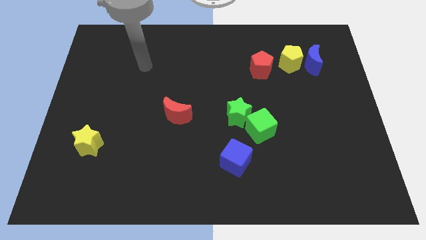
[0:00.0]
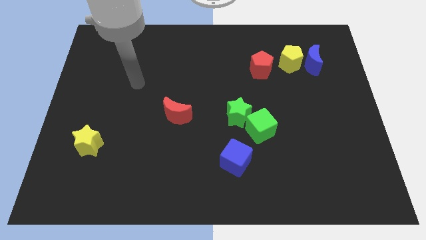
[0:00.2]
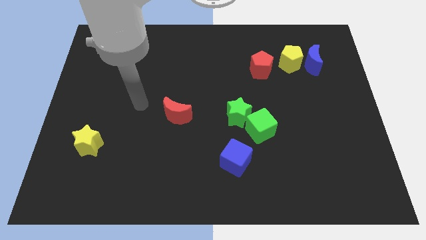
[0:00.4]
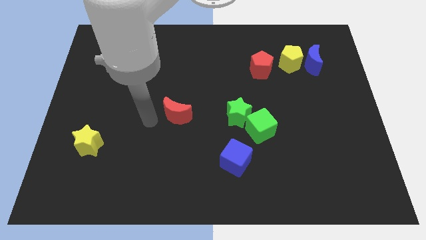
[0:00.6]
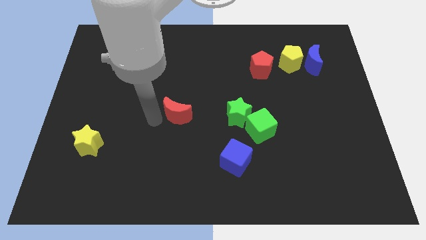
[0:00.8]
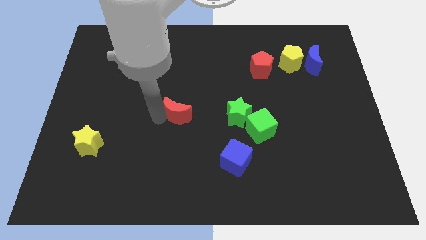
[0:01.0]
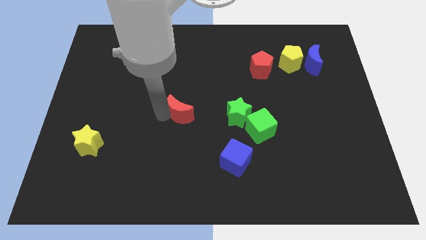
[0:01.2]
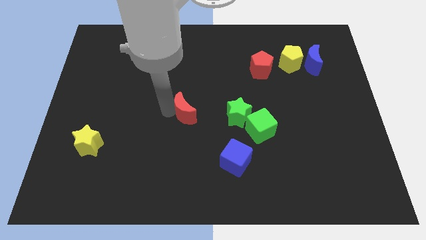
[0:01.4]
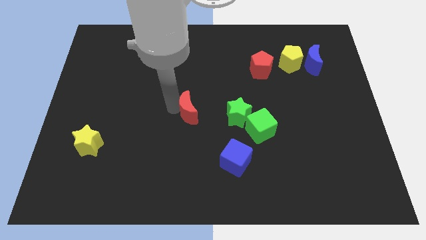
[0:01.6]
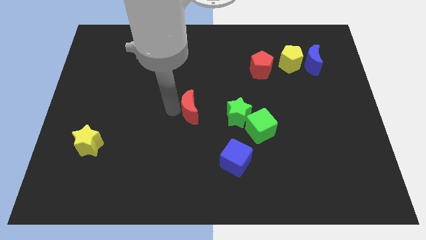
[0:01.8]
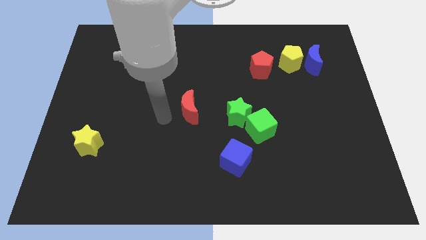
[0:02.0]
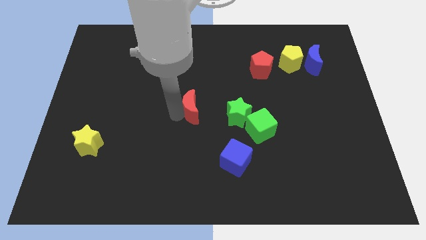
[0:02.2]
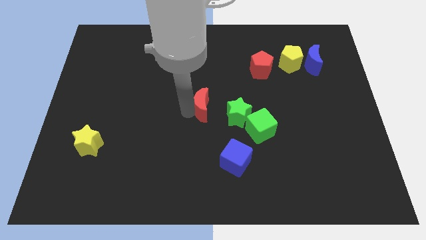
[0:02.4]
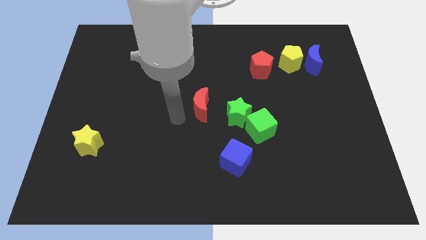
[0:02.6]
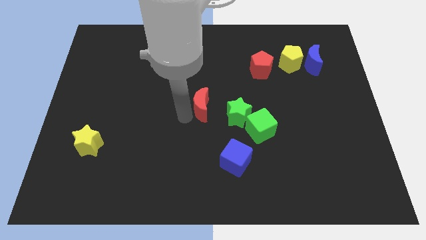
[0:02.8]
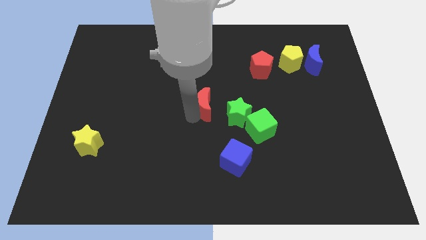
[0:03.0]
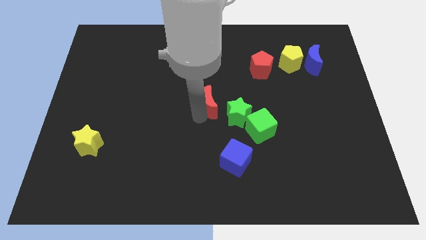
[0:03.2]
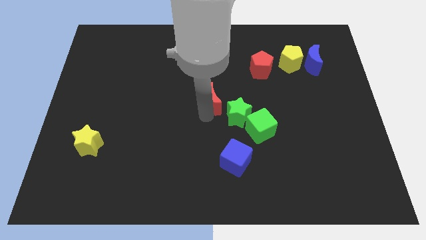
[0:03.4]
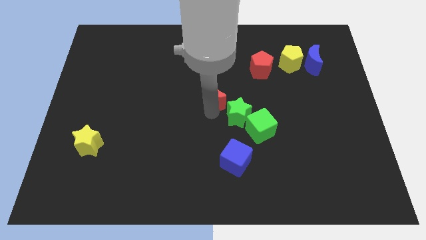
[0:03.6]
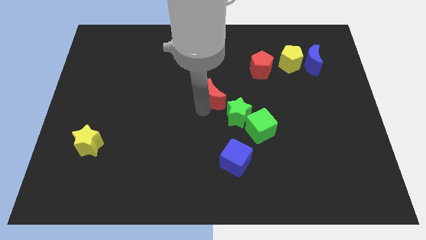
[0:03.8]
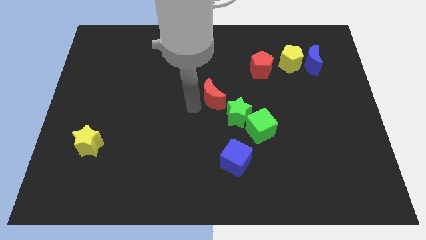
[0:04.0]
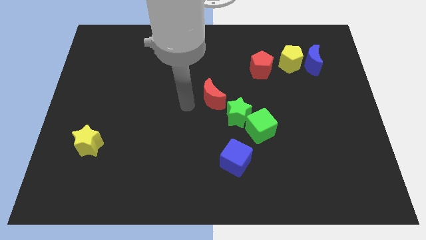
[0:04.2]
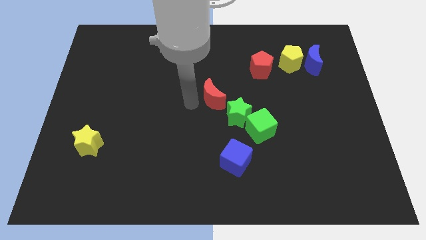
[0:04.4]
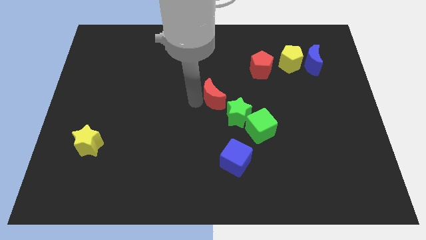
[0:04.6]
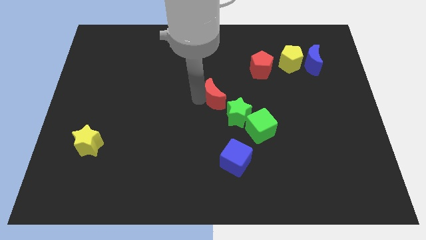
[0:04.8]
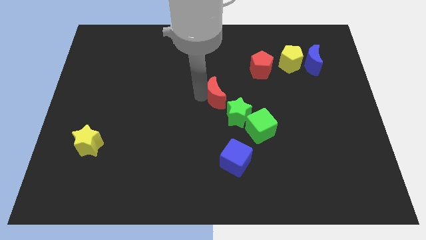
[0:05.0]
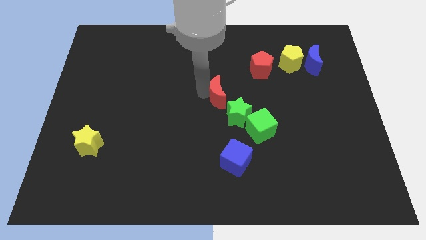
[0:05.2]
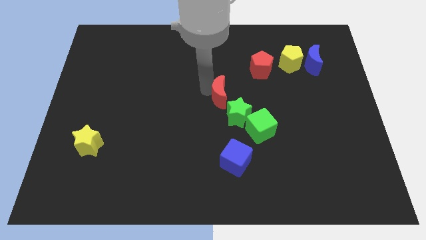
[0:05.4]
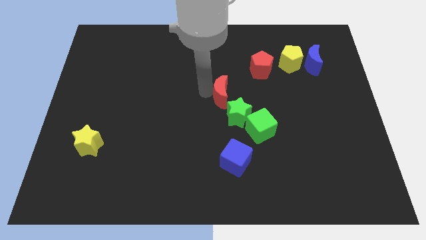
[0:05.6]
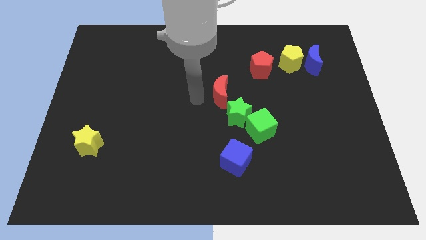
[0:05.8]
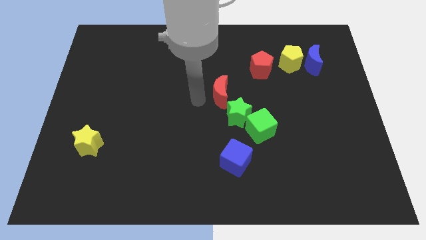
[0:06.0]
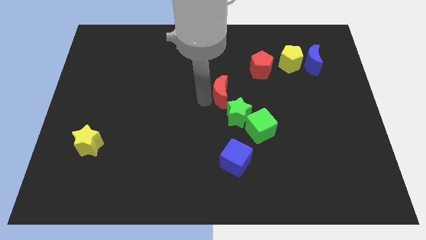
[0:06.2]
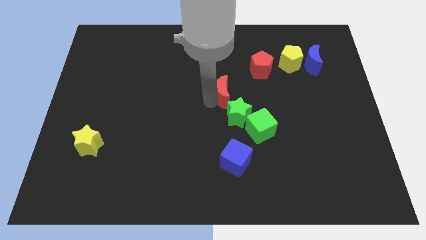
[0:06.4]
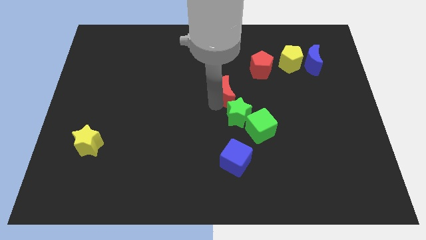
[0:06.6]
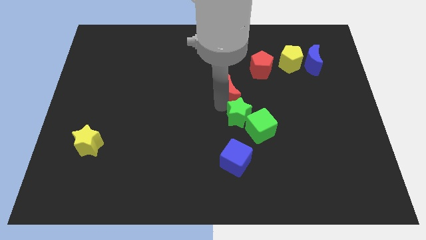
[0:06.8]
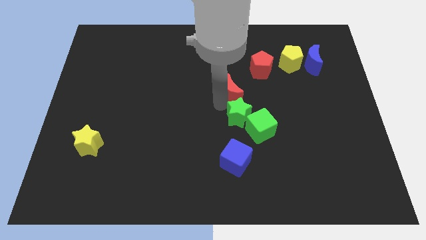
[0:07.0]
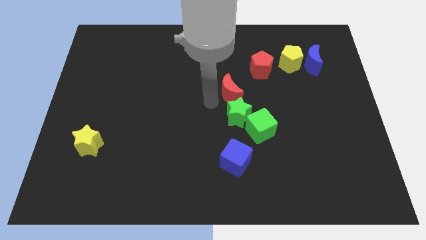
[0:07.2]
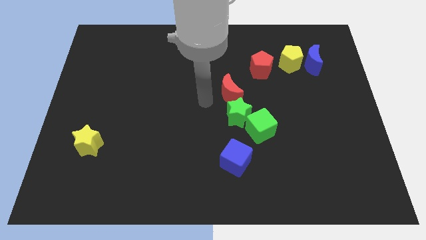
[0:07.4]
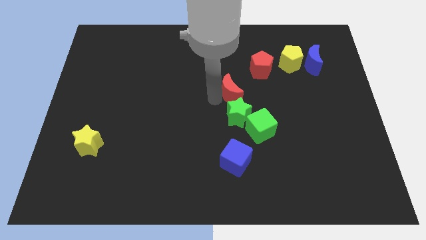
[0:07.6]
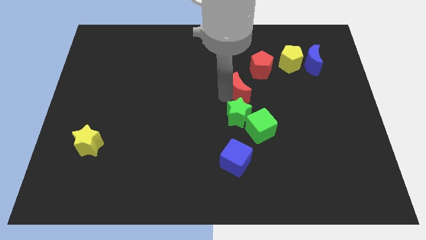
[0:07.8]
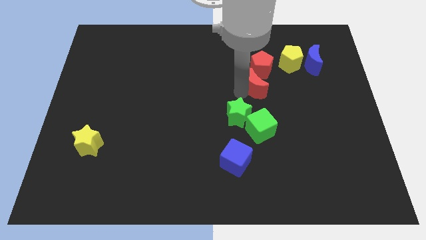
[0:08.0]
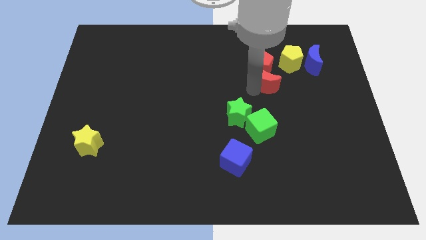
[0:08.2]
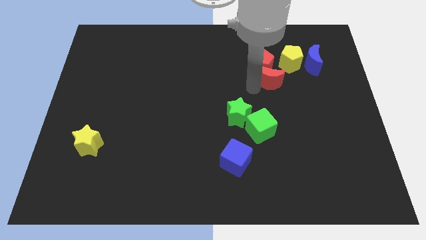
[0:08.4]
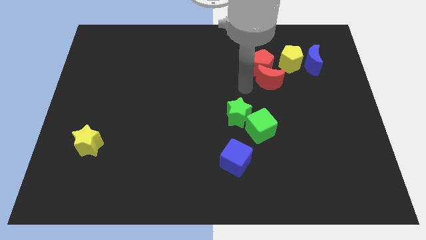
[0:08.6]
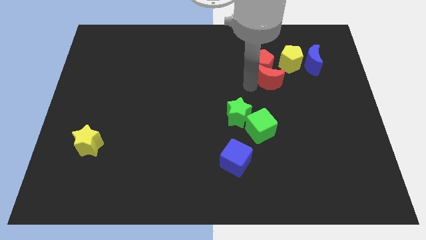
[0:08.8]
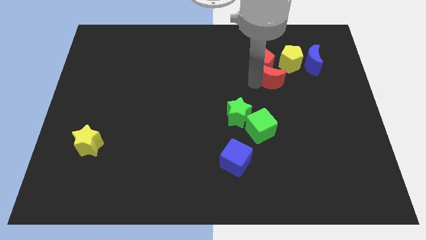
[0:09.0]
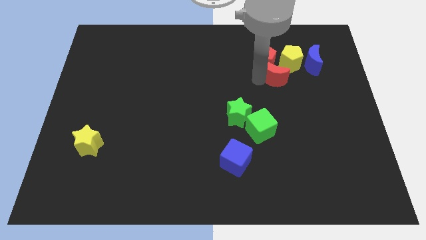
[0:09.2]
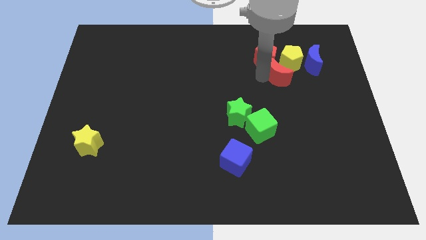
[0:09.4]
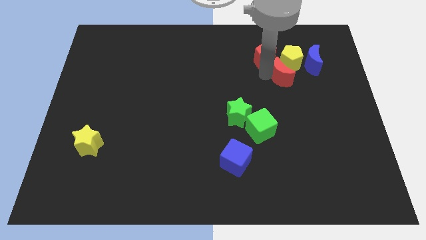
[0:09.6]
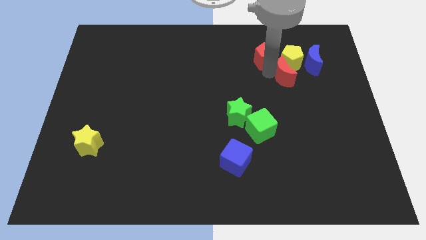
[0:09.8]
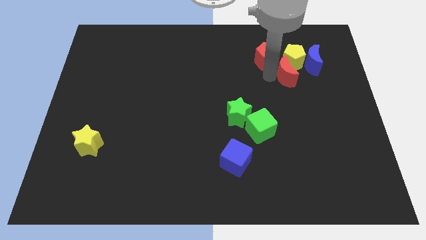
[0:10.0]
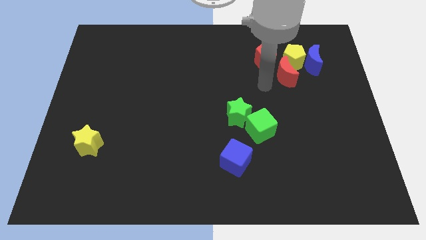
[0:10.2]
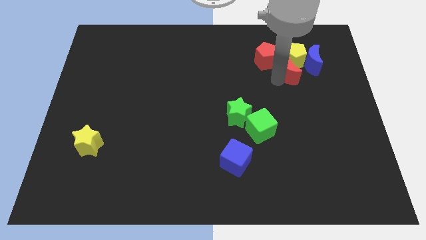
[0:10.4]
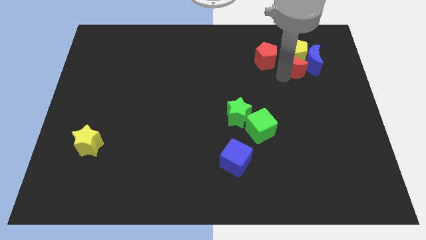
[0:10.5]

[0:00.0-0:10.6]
slide the red moon next to the blue moon

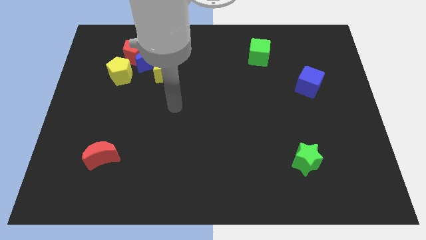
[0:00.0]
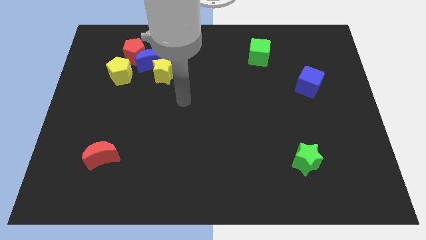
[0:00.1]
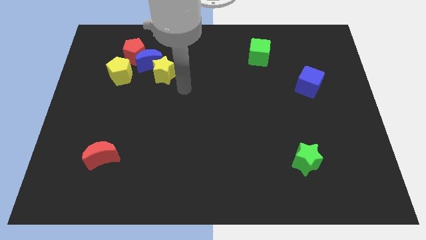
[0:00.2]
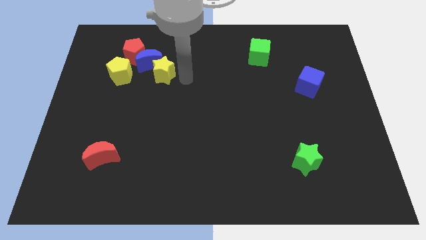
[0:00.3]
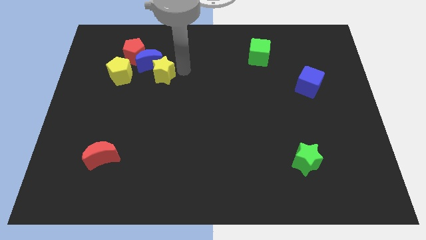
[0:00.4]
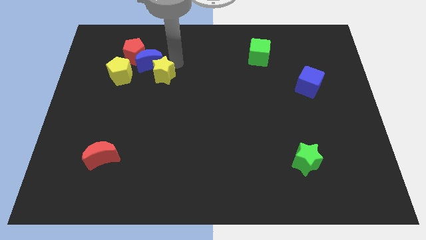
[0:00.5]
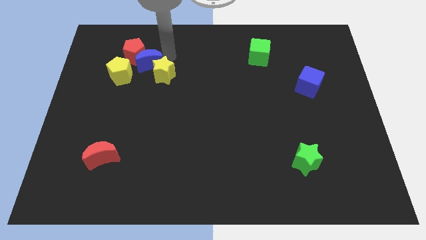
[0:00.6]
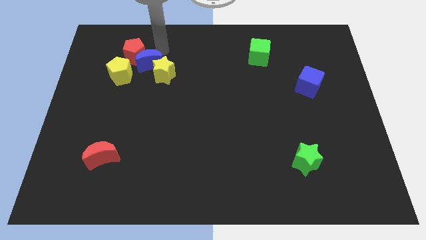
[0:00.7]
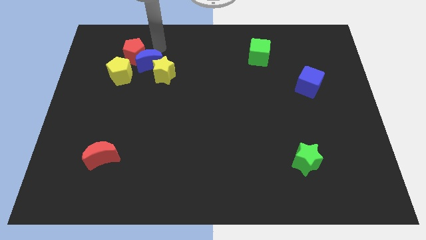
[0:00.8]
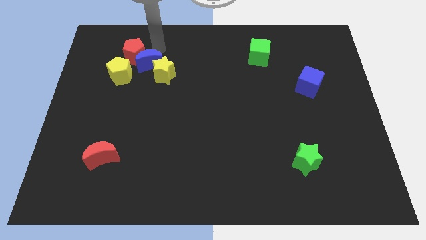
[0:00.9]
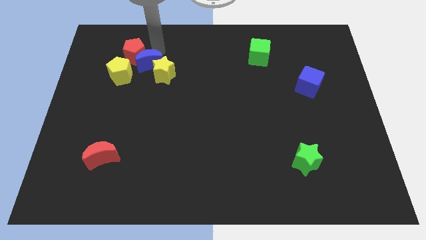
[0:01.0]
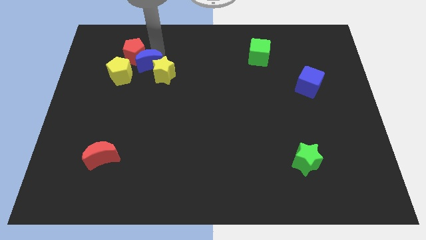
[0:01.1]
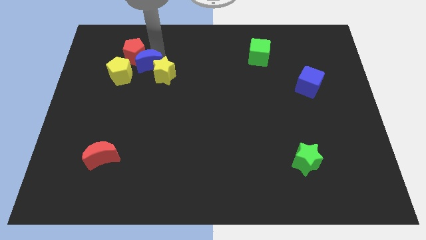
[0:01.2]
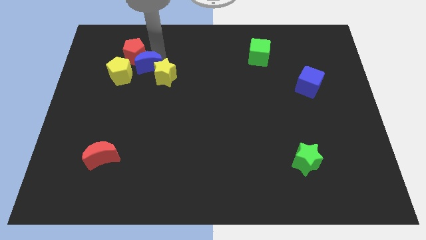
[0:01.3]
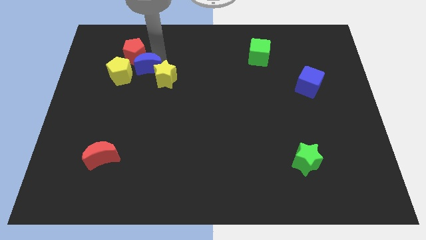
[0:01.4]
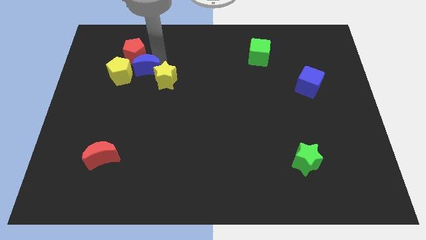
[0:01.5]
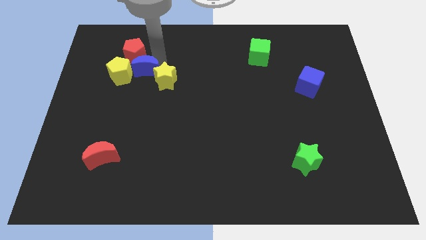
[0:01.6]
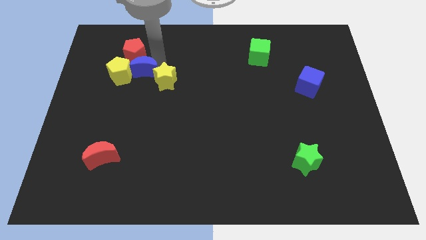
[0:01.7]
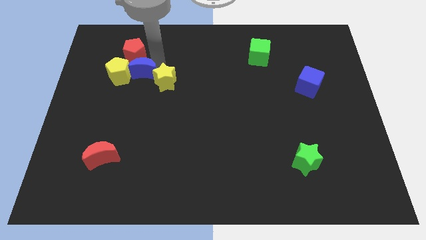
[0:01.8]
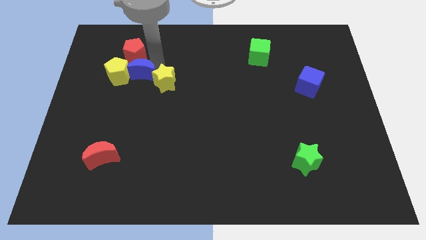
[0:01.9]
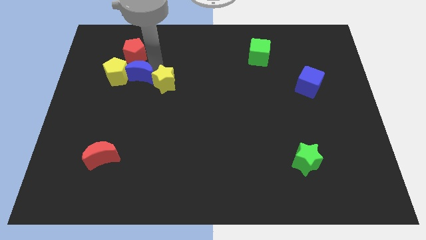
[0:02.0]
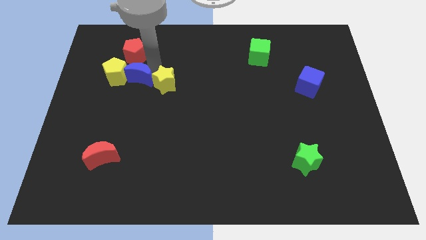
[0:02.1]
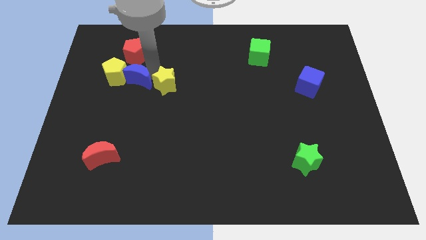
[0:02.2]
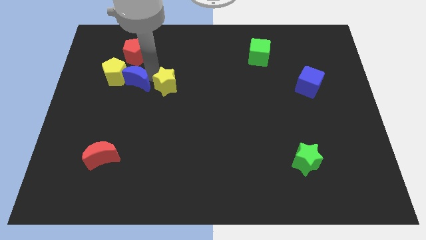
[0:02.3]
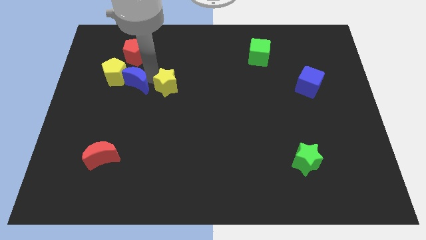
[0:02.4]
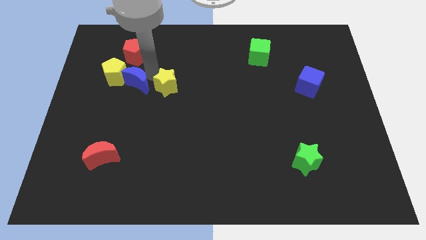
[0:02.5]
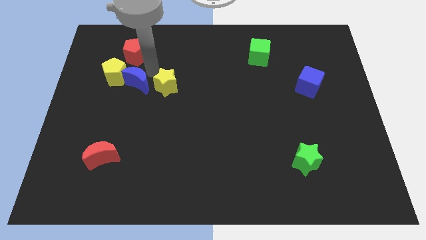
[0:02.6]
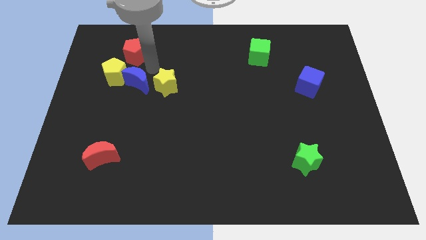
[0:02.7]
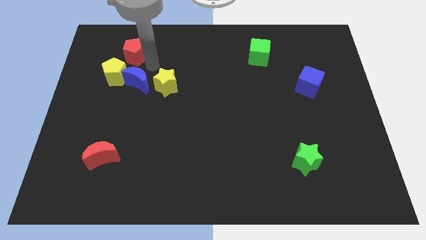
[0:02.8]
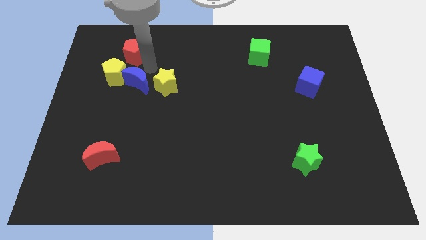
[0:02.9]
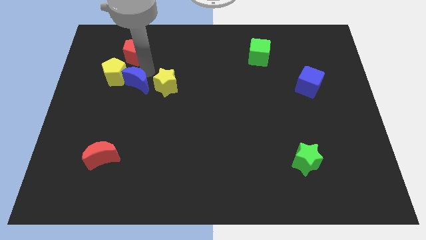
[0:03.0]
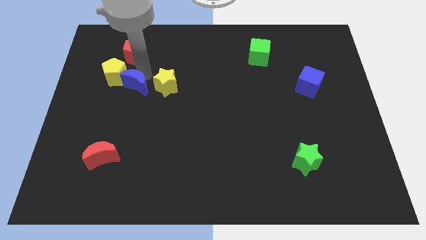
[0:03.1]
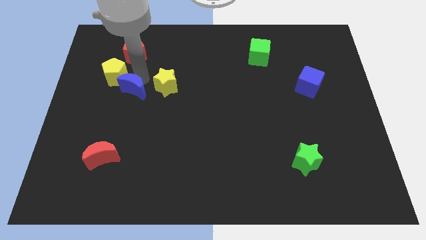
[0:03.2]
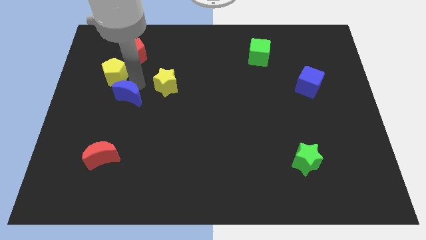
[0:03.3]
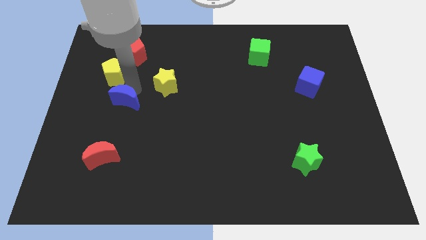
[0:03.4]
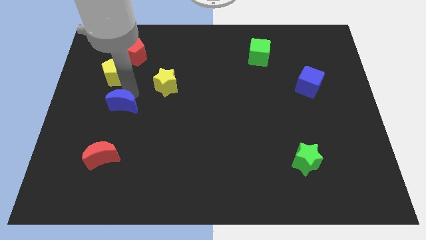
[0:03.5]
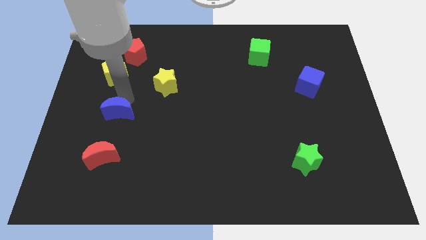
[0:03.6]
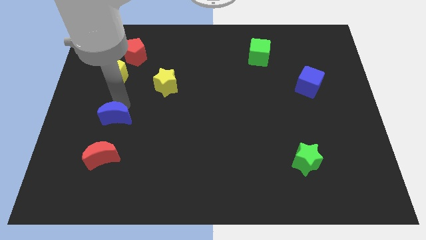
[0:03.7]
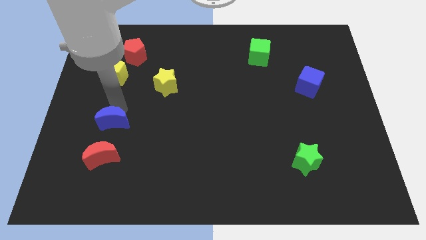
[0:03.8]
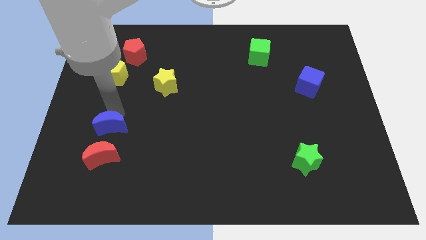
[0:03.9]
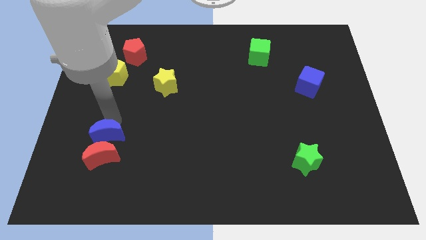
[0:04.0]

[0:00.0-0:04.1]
put the blue moon towards the red moon
